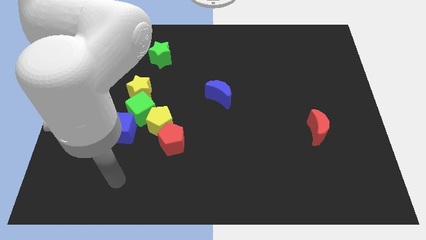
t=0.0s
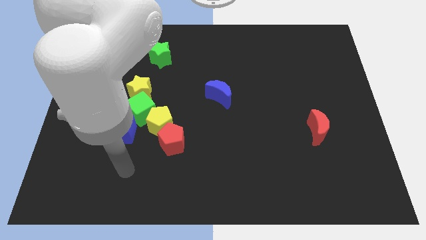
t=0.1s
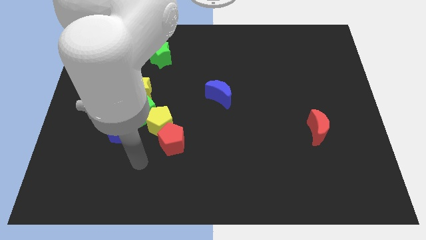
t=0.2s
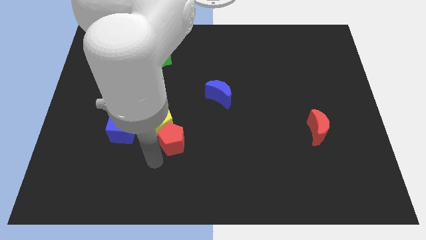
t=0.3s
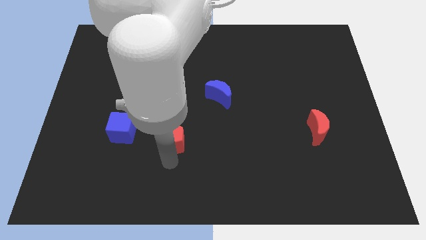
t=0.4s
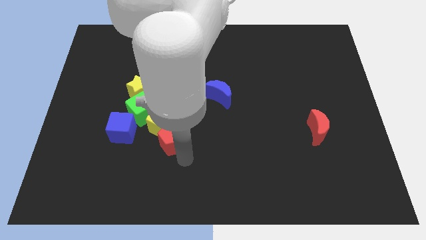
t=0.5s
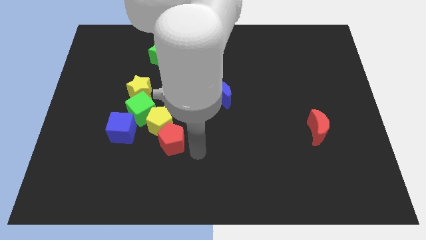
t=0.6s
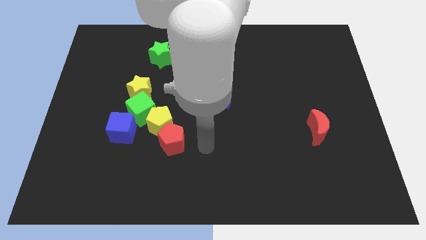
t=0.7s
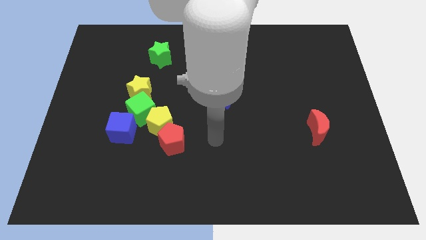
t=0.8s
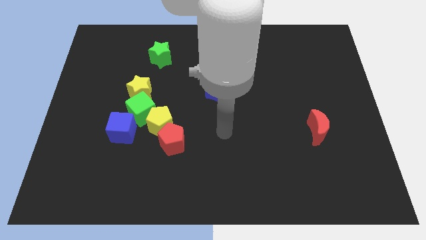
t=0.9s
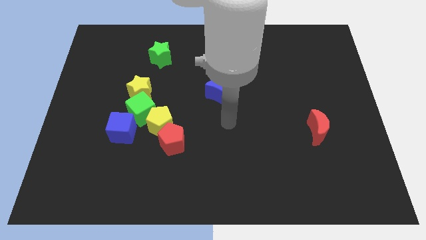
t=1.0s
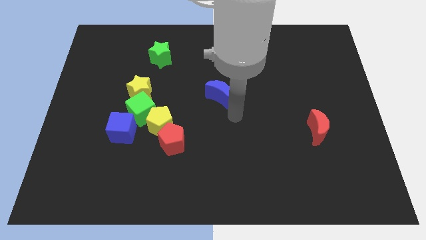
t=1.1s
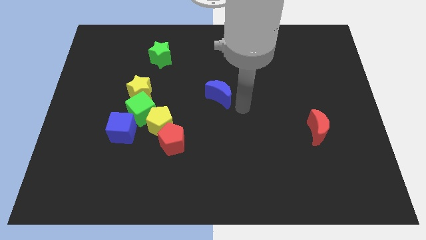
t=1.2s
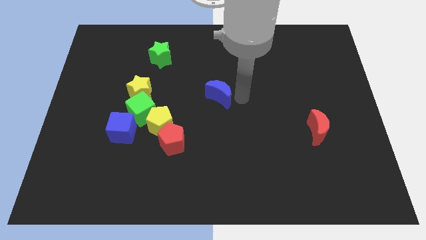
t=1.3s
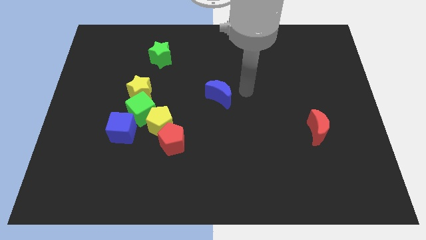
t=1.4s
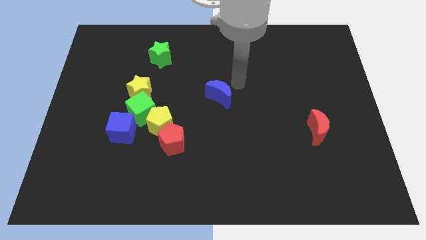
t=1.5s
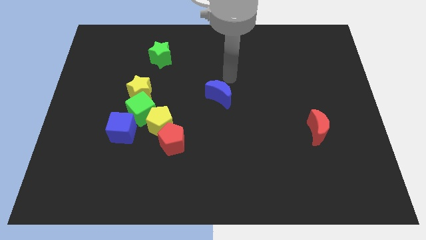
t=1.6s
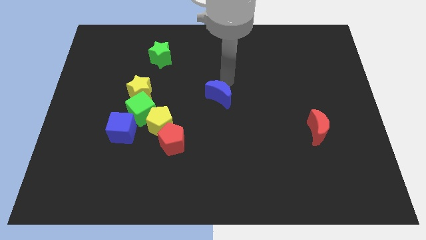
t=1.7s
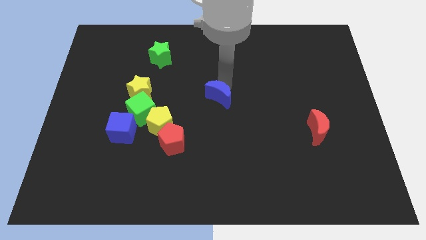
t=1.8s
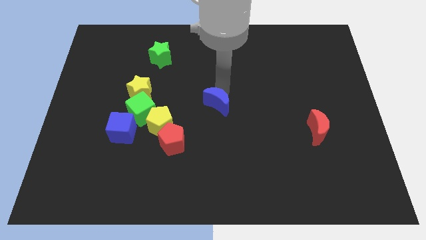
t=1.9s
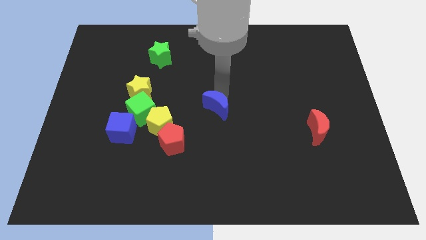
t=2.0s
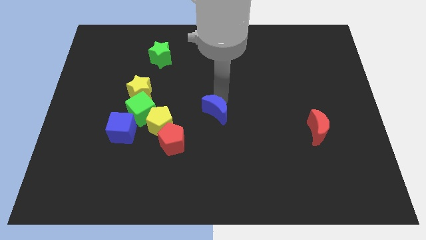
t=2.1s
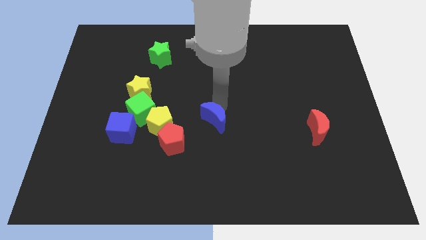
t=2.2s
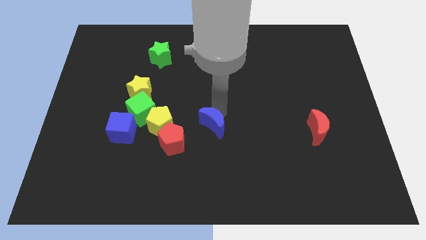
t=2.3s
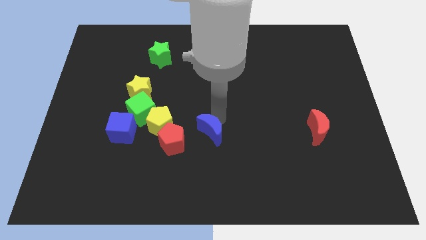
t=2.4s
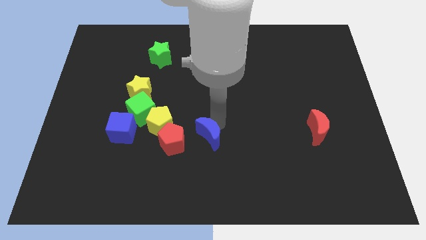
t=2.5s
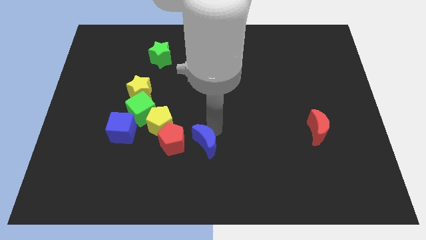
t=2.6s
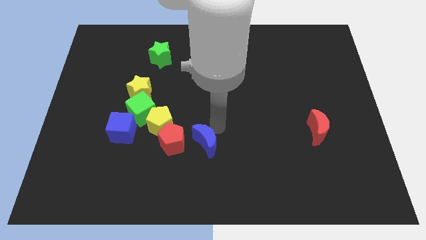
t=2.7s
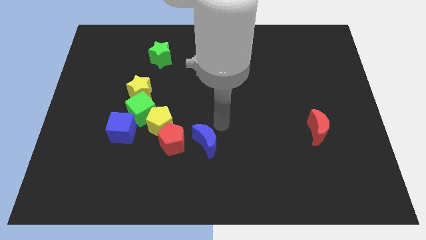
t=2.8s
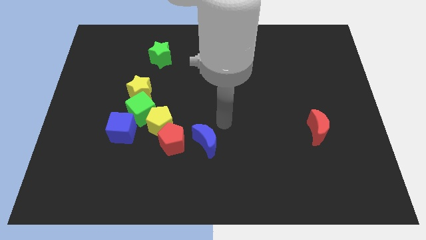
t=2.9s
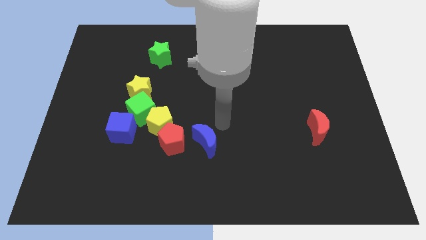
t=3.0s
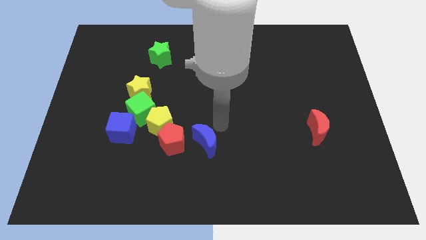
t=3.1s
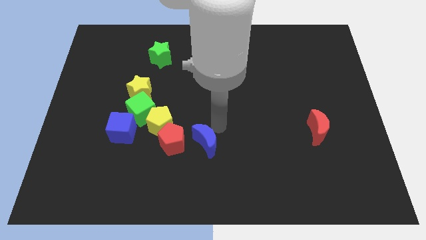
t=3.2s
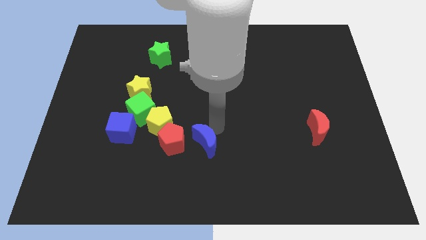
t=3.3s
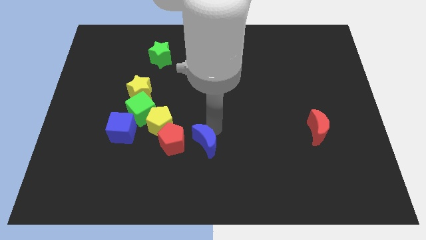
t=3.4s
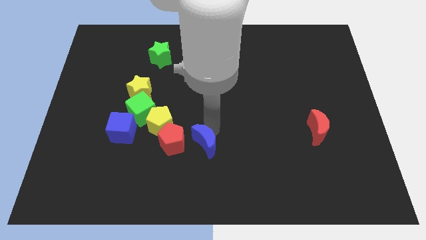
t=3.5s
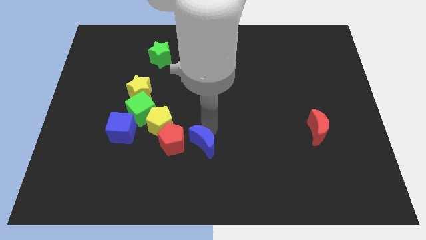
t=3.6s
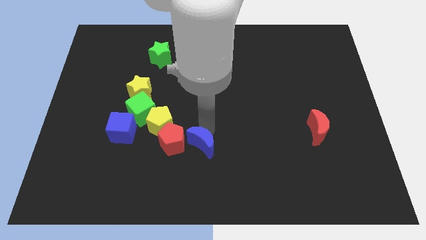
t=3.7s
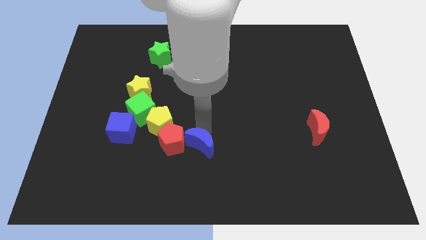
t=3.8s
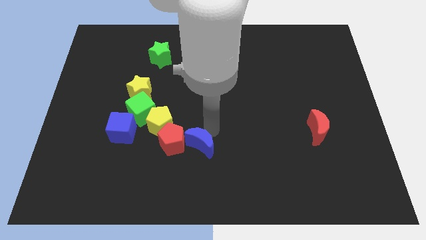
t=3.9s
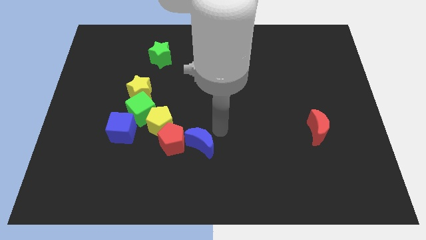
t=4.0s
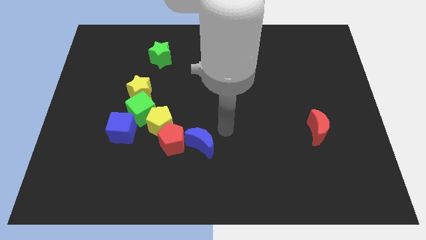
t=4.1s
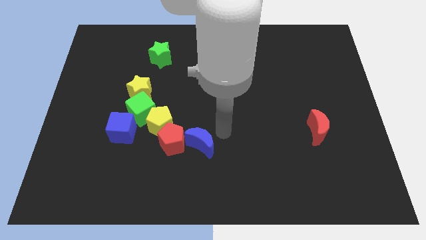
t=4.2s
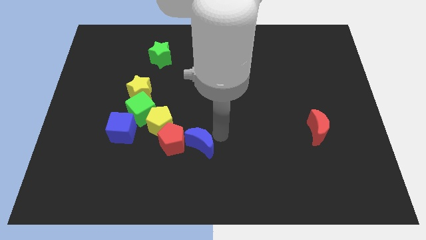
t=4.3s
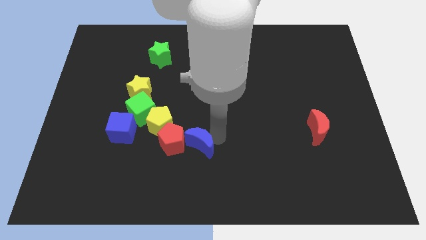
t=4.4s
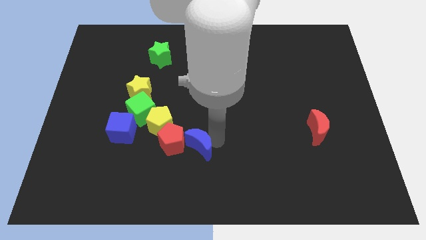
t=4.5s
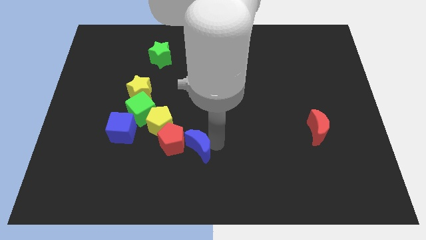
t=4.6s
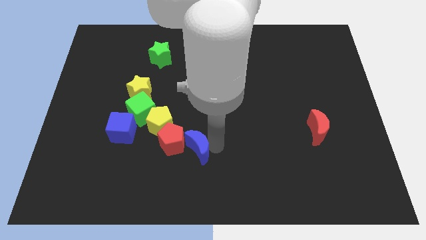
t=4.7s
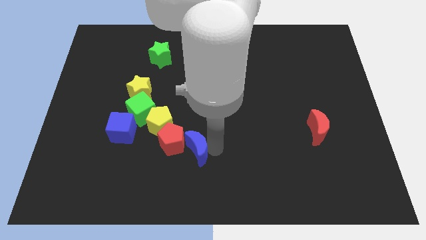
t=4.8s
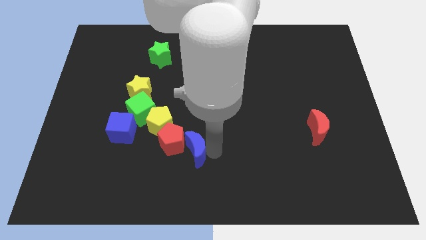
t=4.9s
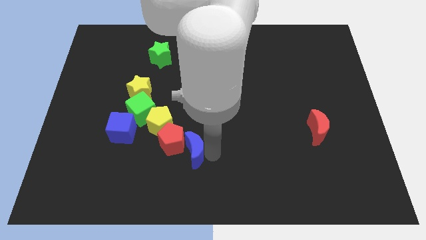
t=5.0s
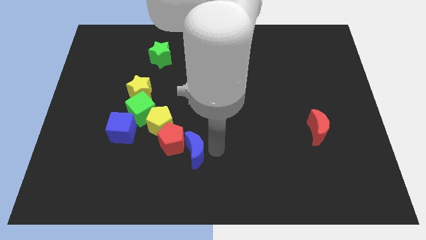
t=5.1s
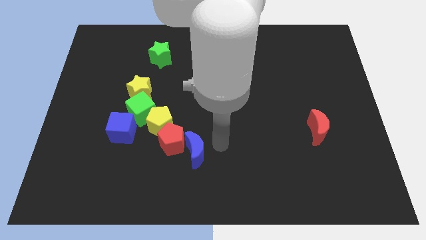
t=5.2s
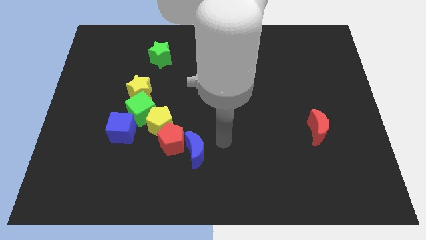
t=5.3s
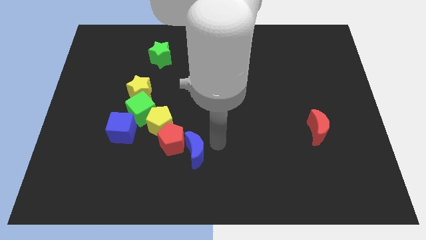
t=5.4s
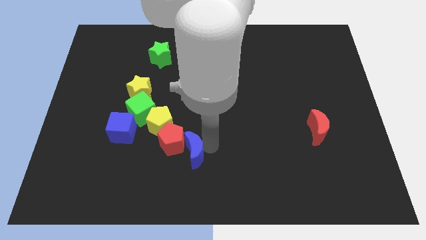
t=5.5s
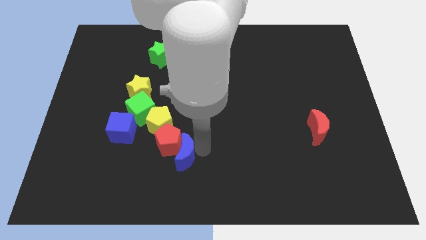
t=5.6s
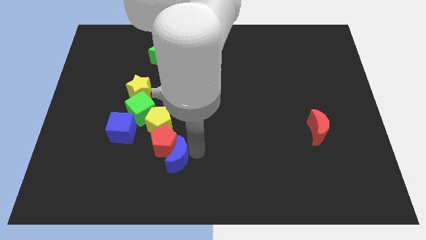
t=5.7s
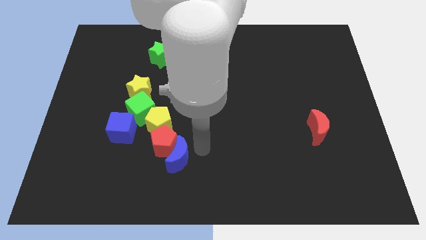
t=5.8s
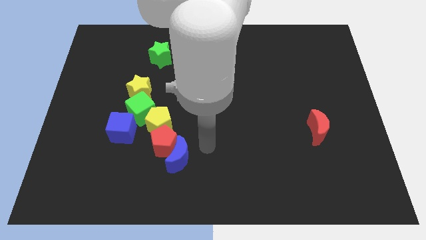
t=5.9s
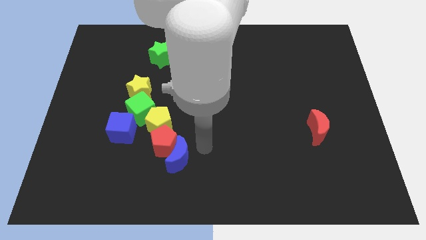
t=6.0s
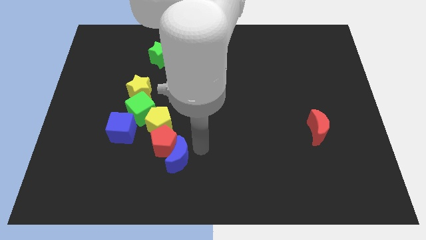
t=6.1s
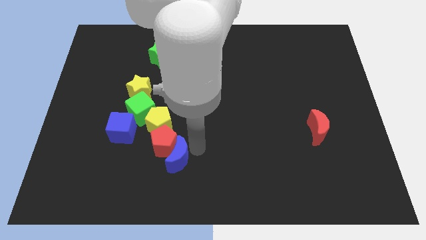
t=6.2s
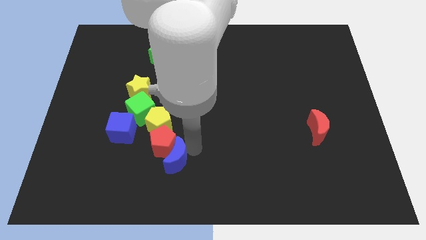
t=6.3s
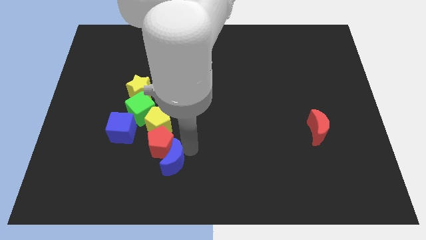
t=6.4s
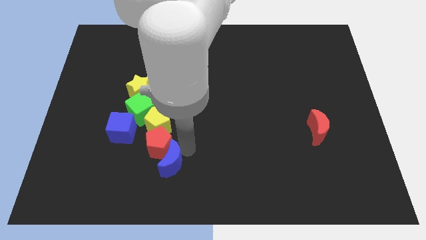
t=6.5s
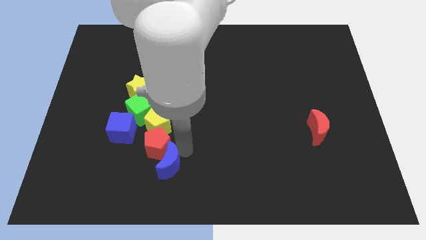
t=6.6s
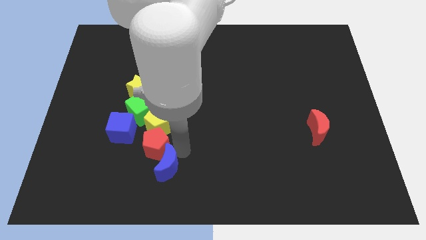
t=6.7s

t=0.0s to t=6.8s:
push the blue moon diagonally downwards and to the left

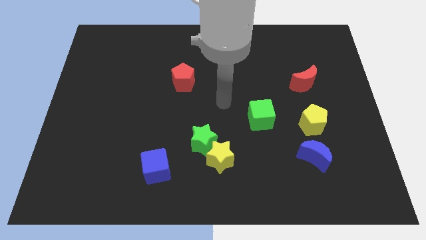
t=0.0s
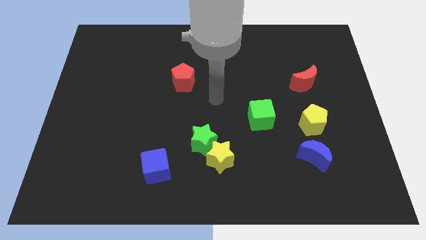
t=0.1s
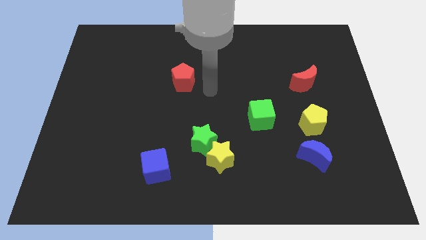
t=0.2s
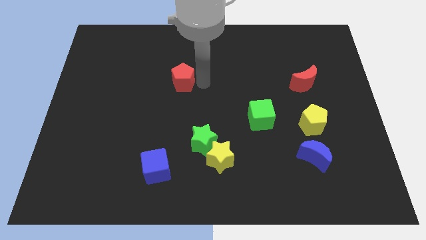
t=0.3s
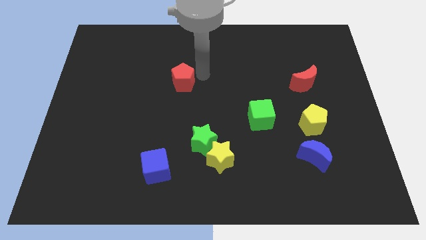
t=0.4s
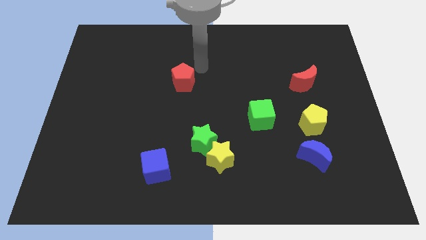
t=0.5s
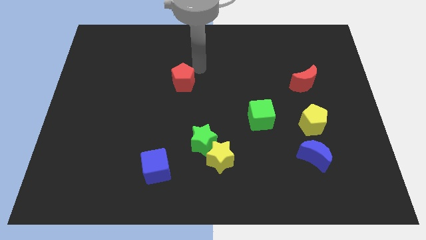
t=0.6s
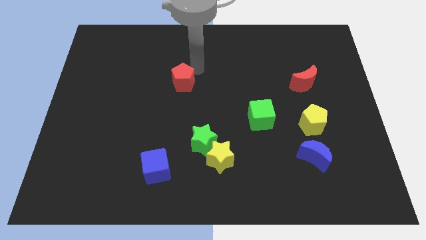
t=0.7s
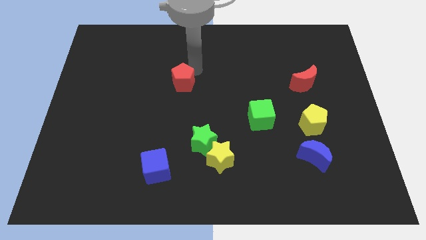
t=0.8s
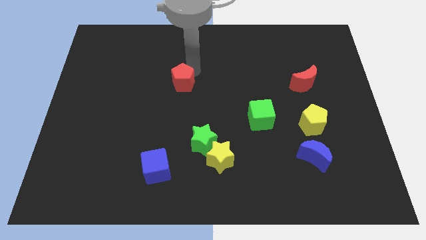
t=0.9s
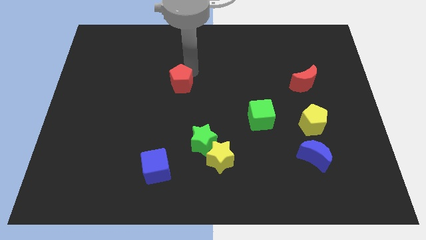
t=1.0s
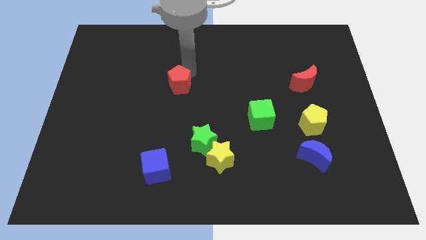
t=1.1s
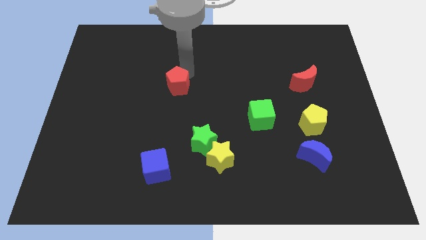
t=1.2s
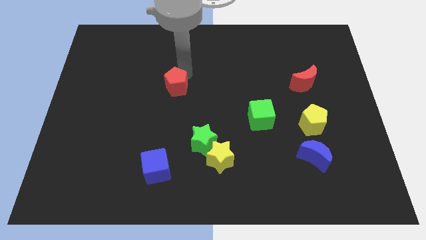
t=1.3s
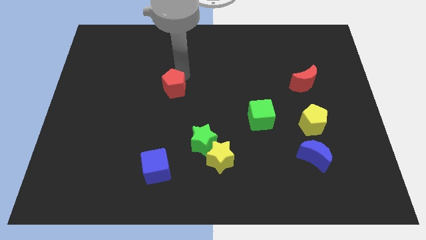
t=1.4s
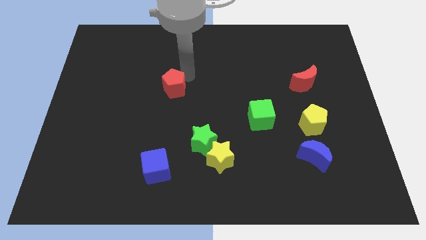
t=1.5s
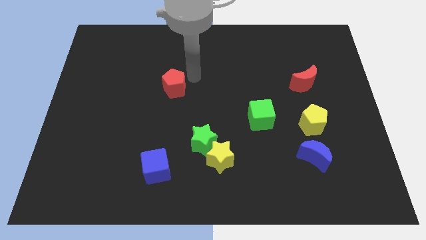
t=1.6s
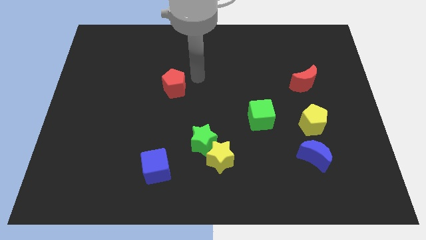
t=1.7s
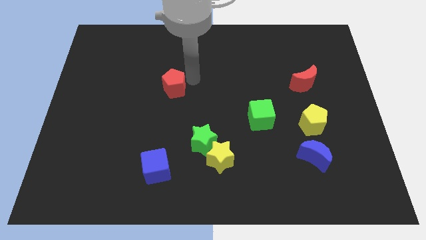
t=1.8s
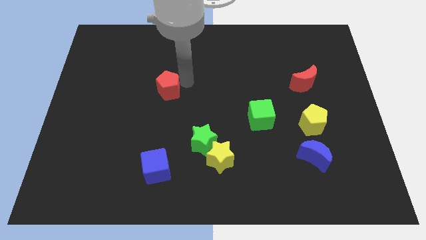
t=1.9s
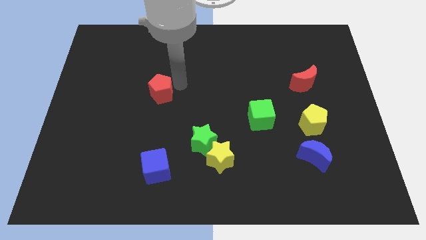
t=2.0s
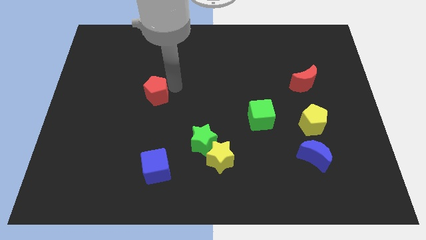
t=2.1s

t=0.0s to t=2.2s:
slide the red pentagon slightly down and left diagonally
